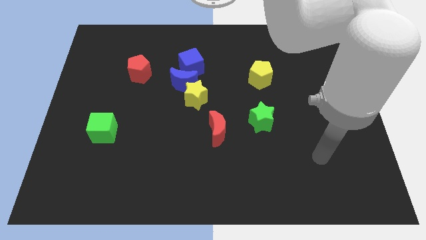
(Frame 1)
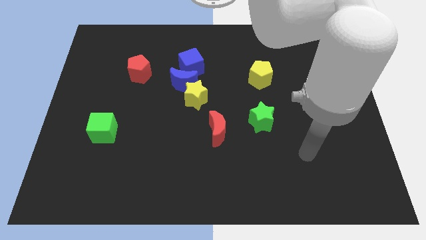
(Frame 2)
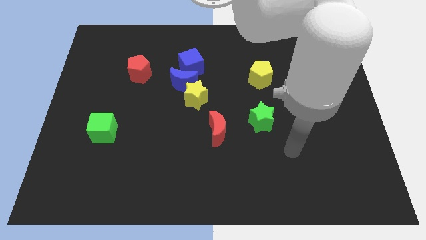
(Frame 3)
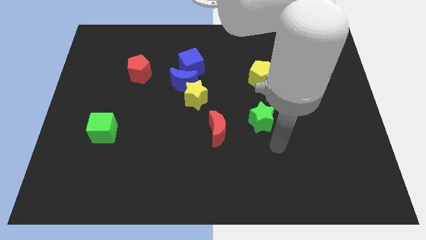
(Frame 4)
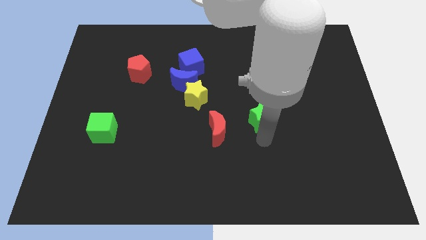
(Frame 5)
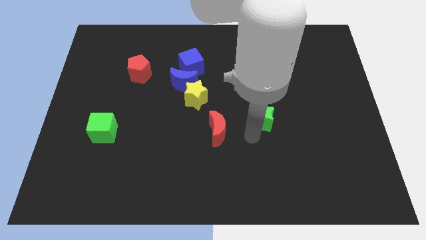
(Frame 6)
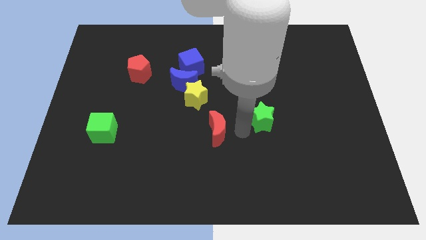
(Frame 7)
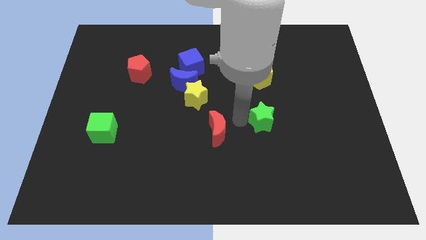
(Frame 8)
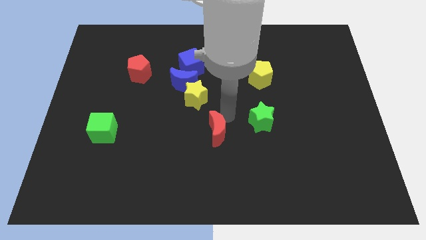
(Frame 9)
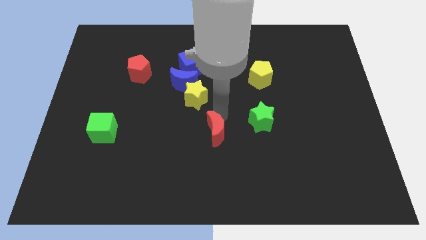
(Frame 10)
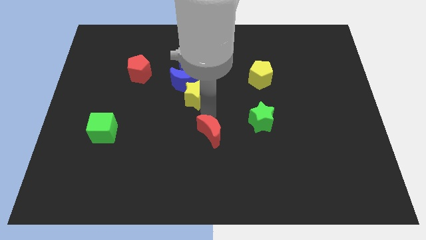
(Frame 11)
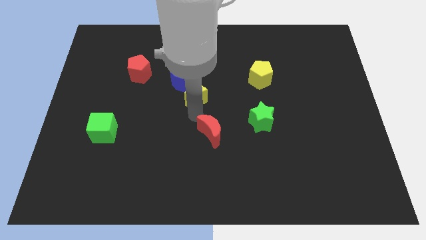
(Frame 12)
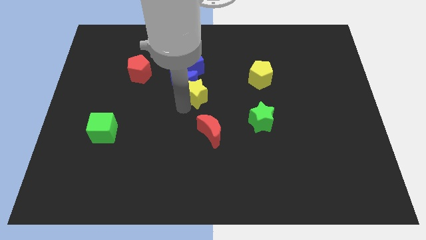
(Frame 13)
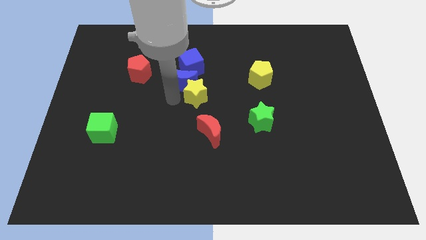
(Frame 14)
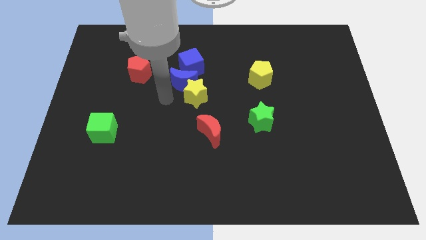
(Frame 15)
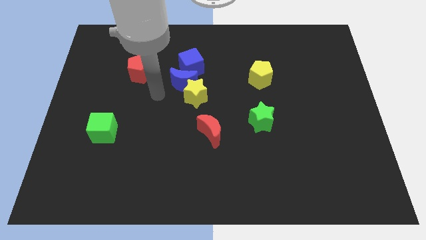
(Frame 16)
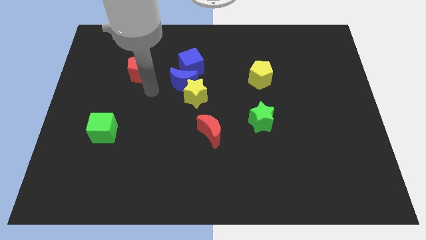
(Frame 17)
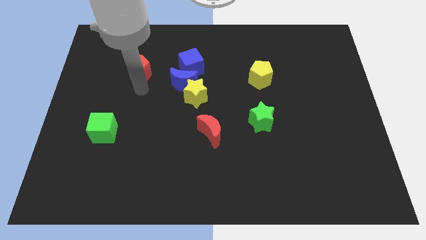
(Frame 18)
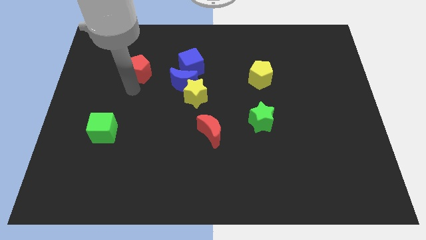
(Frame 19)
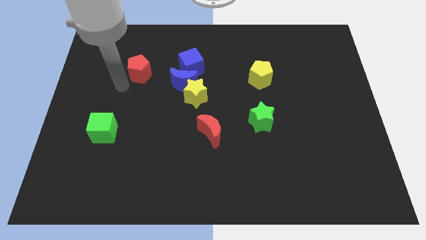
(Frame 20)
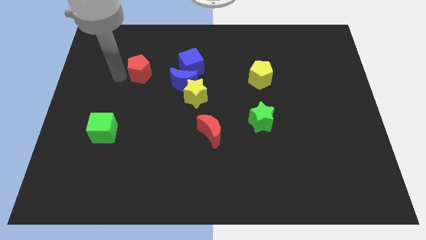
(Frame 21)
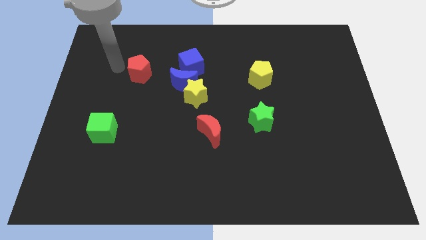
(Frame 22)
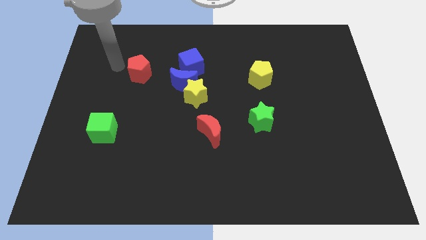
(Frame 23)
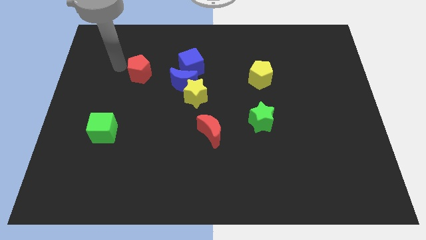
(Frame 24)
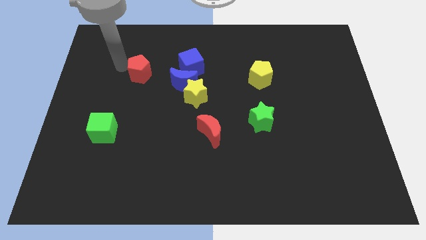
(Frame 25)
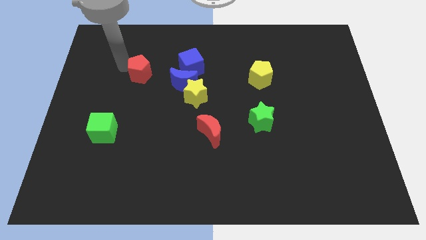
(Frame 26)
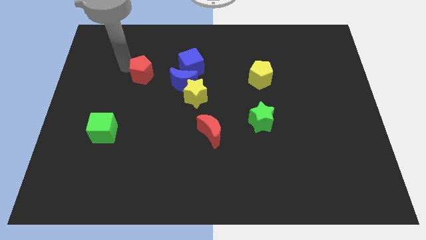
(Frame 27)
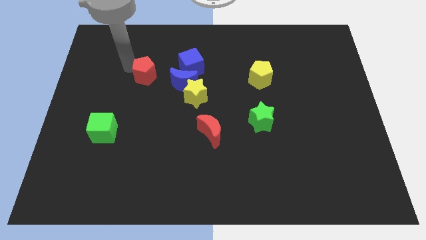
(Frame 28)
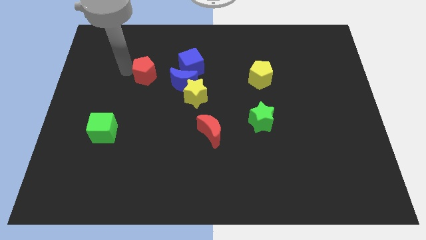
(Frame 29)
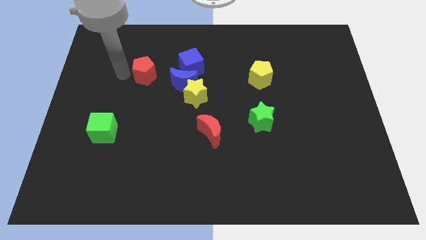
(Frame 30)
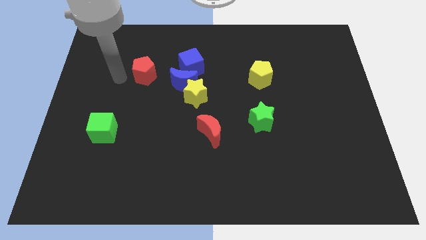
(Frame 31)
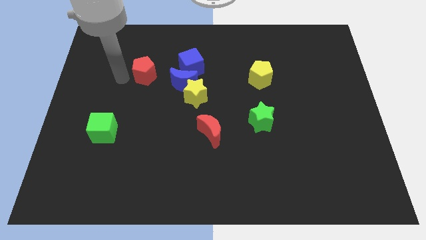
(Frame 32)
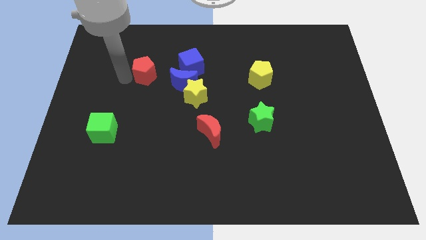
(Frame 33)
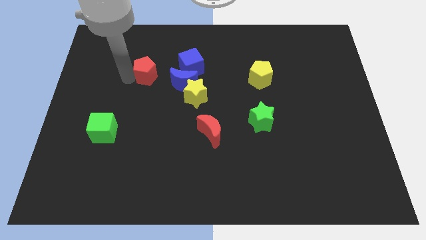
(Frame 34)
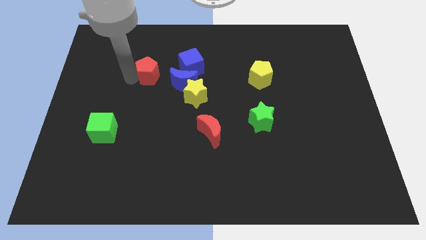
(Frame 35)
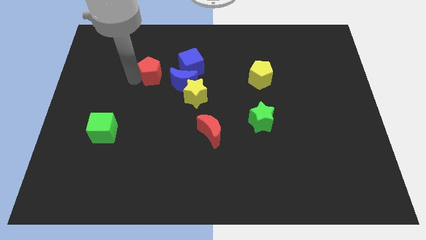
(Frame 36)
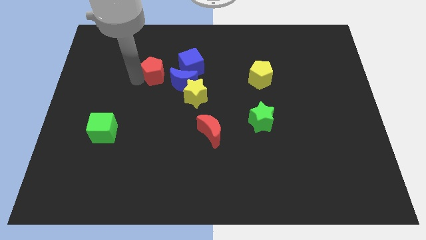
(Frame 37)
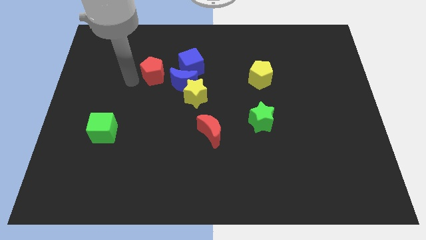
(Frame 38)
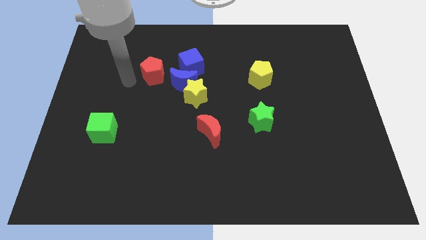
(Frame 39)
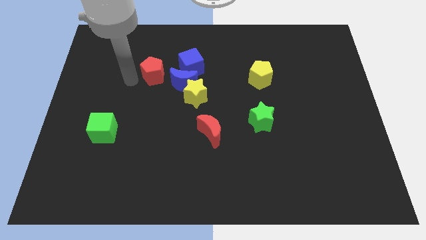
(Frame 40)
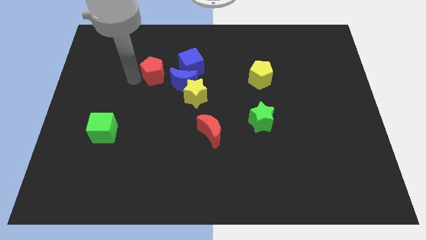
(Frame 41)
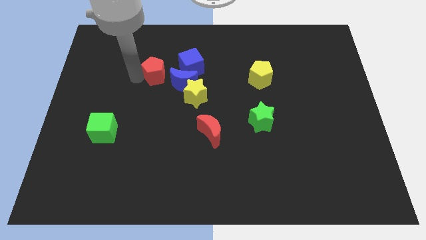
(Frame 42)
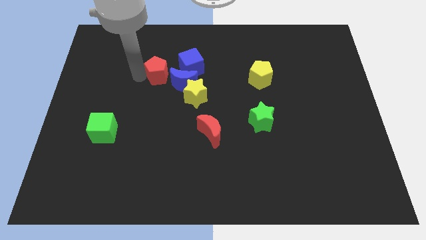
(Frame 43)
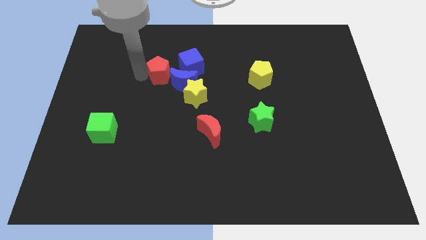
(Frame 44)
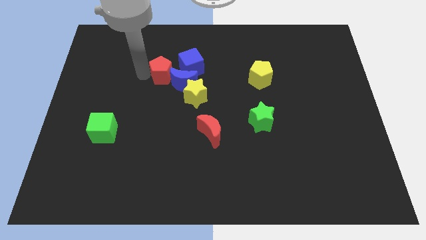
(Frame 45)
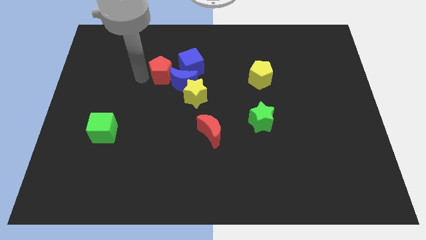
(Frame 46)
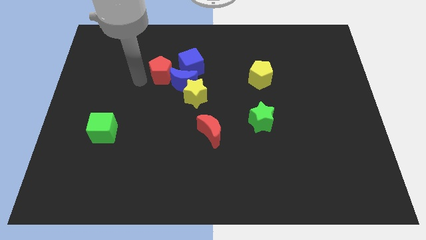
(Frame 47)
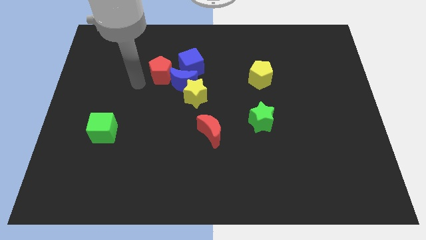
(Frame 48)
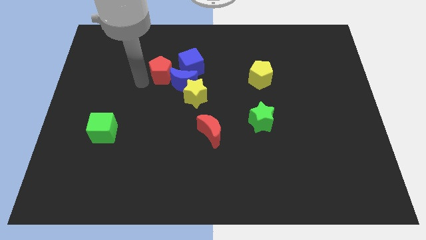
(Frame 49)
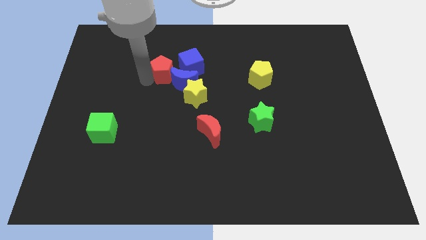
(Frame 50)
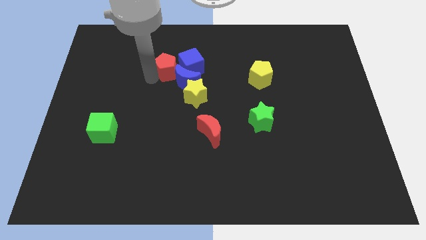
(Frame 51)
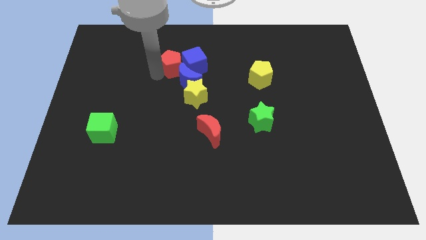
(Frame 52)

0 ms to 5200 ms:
move the red pentagon close to the blue cube

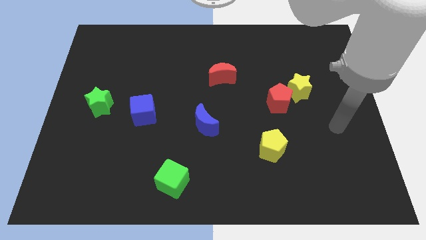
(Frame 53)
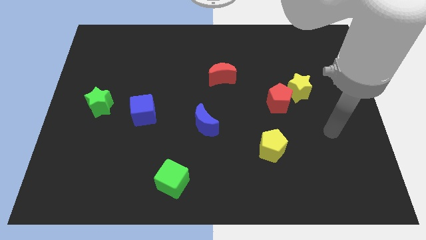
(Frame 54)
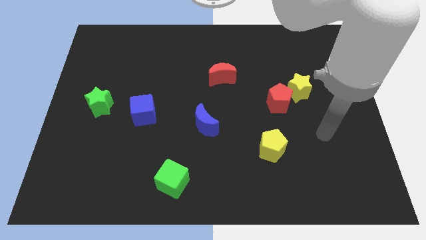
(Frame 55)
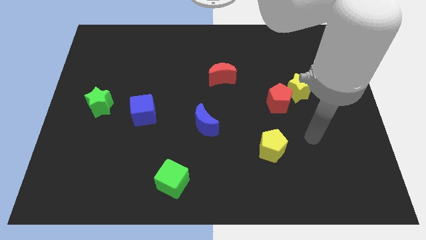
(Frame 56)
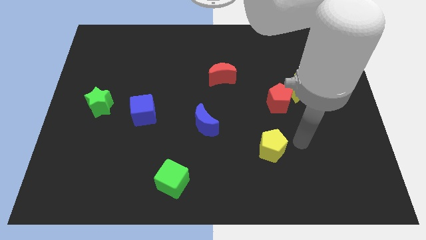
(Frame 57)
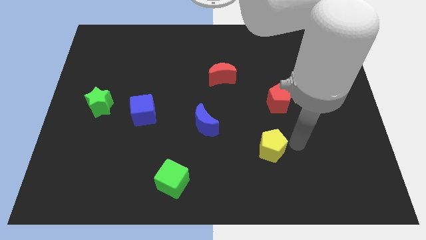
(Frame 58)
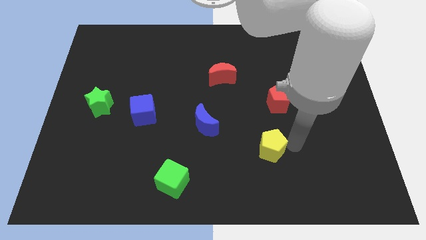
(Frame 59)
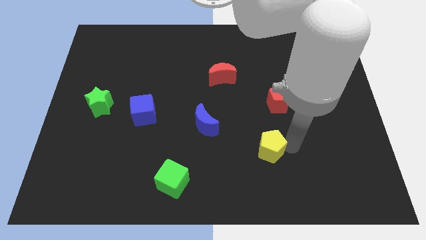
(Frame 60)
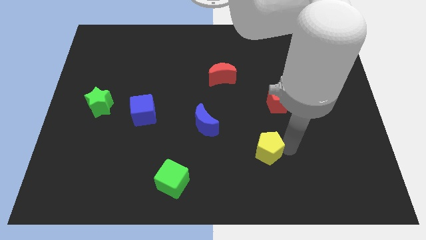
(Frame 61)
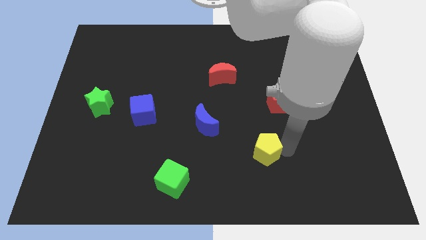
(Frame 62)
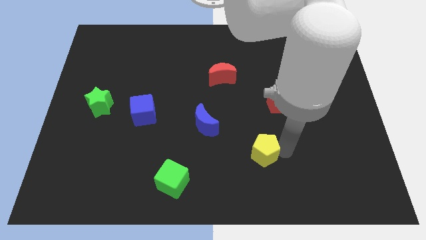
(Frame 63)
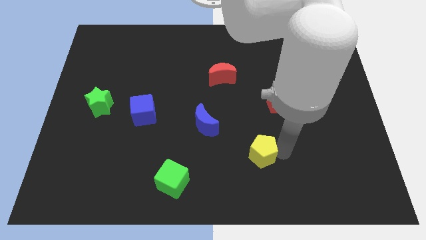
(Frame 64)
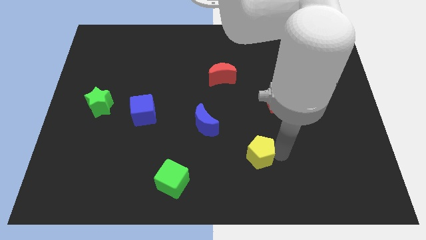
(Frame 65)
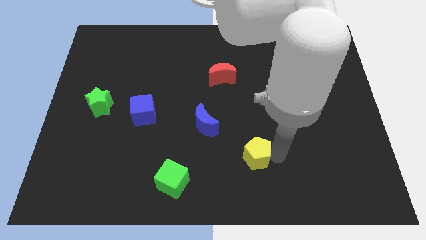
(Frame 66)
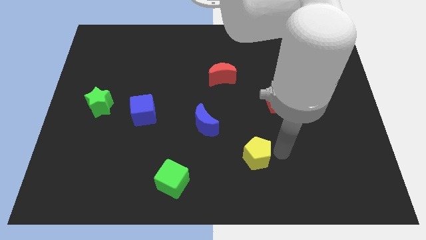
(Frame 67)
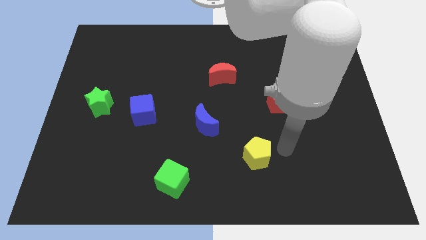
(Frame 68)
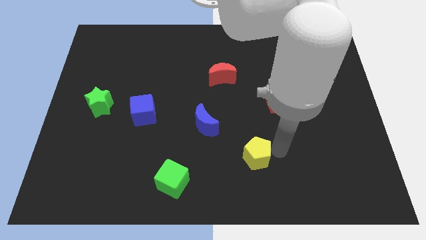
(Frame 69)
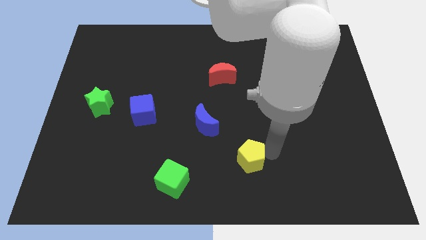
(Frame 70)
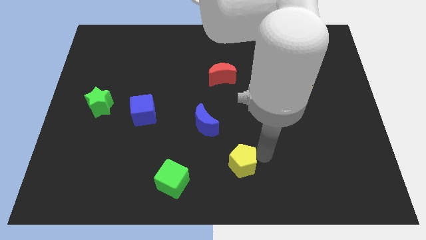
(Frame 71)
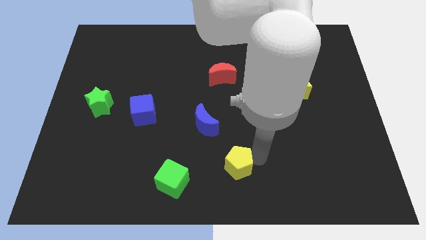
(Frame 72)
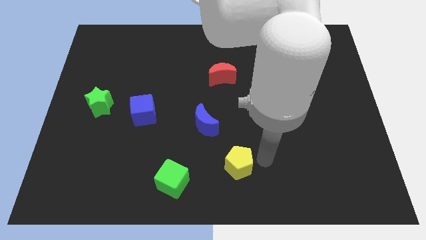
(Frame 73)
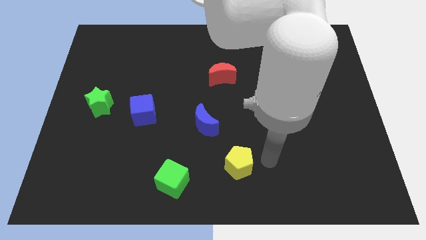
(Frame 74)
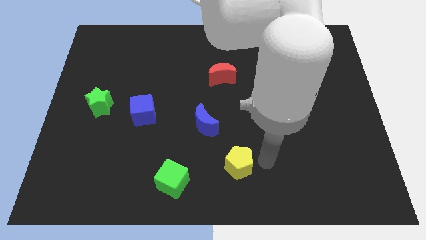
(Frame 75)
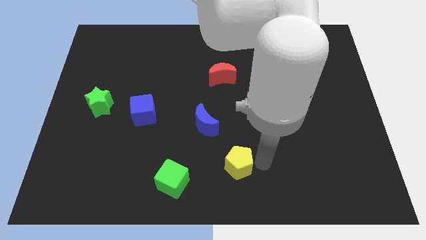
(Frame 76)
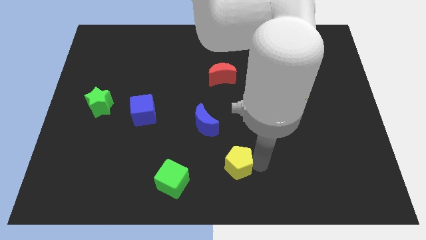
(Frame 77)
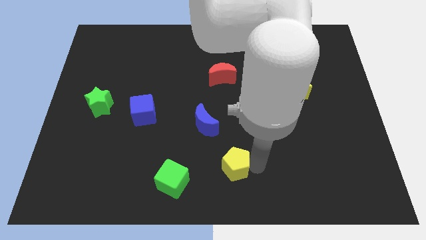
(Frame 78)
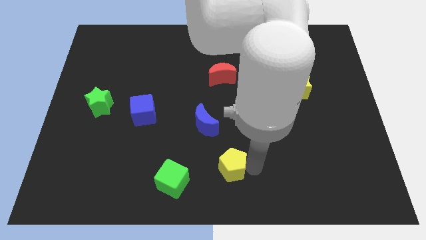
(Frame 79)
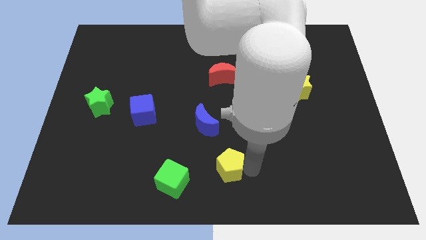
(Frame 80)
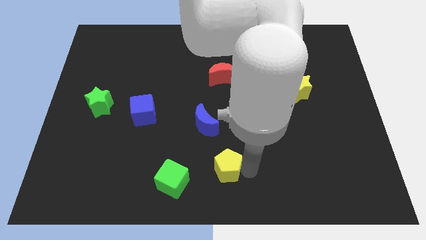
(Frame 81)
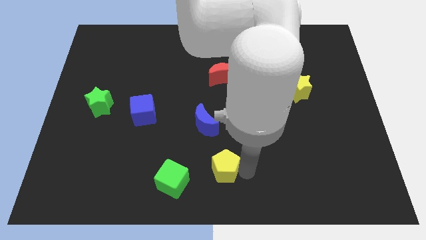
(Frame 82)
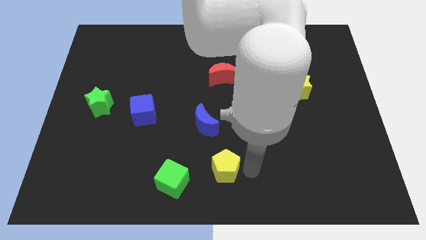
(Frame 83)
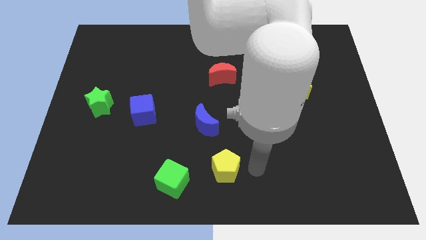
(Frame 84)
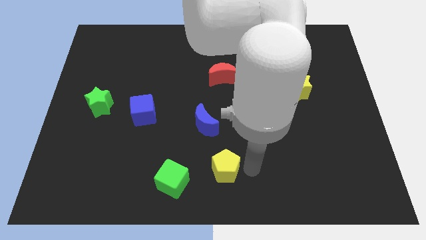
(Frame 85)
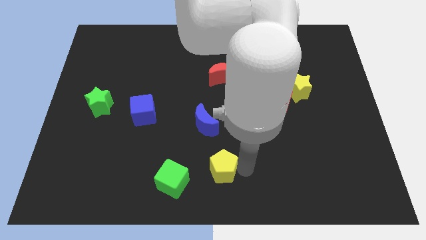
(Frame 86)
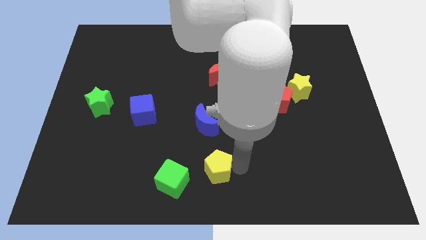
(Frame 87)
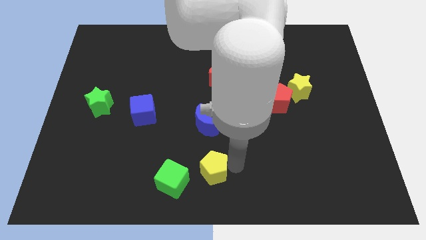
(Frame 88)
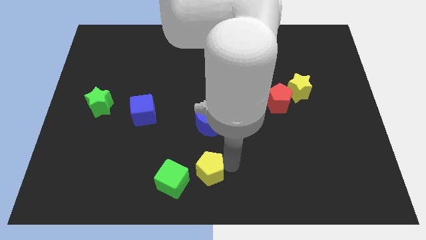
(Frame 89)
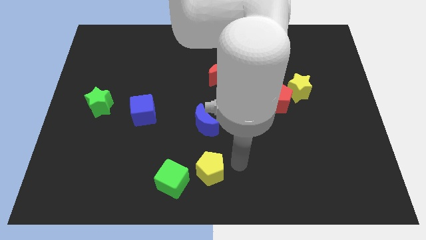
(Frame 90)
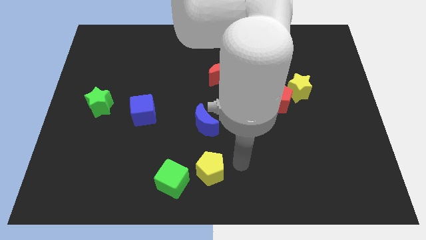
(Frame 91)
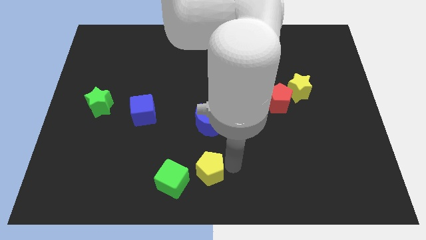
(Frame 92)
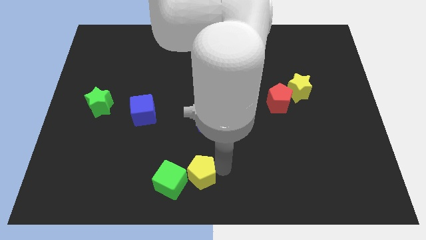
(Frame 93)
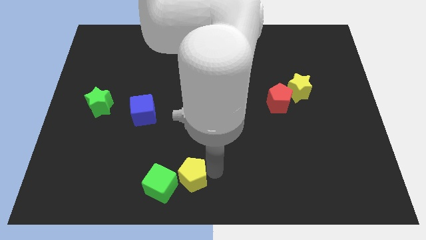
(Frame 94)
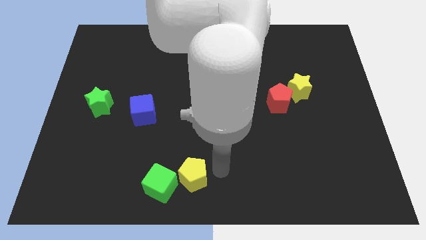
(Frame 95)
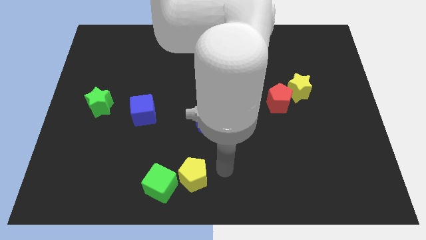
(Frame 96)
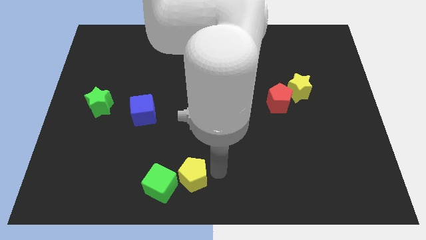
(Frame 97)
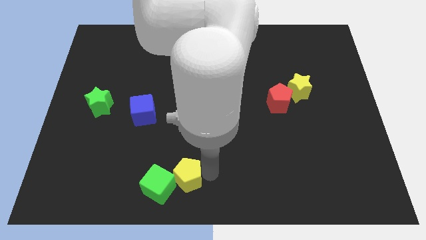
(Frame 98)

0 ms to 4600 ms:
move the yellow pentagon next to the green cube
